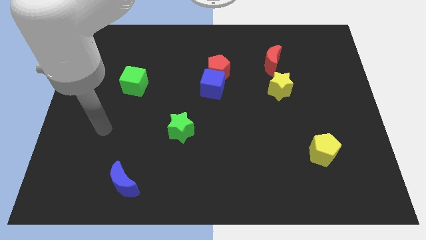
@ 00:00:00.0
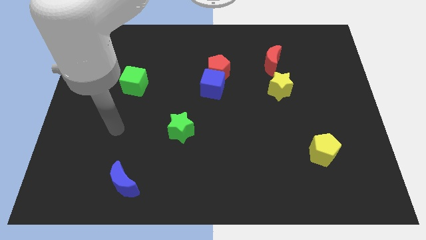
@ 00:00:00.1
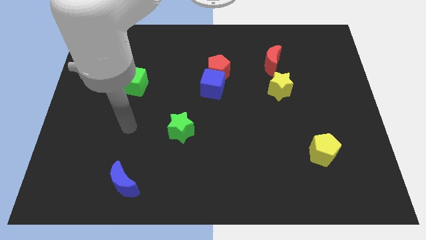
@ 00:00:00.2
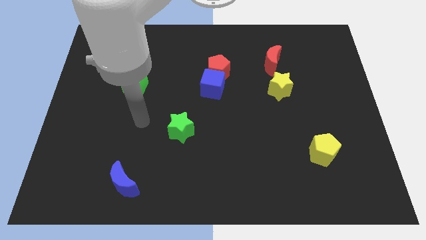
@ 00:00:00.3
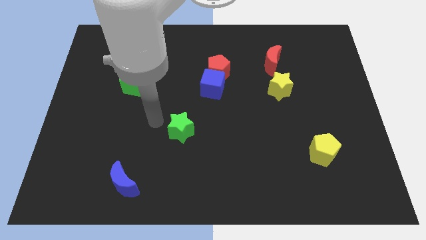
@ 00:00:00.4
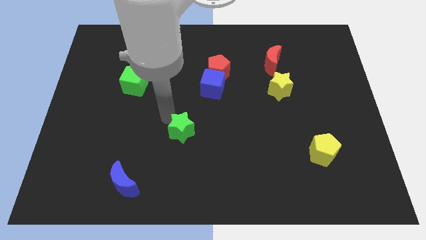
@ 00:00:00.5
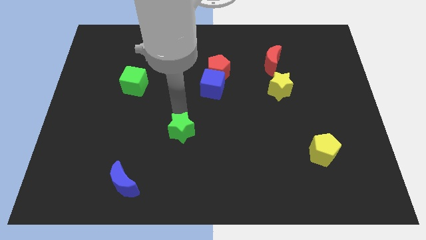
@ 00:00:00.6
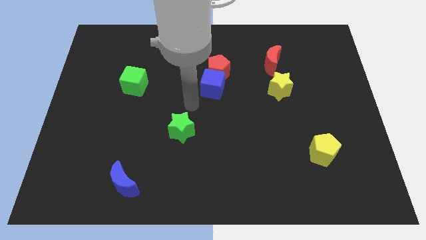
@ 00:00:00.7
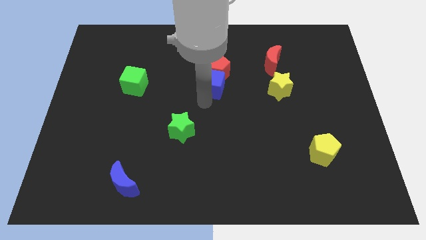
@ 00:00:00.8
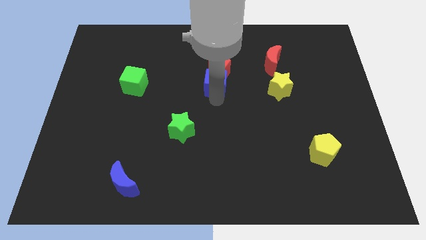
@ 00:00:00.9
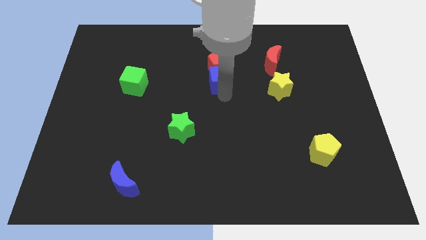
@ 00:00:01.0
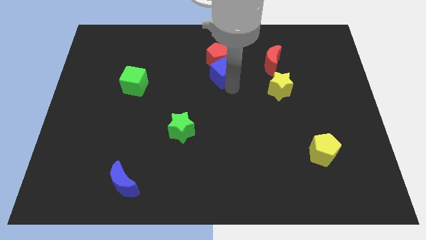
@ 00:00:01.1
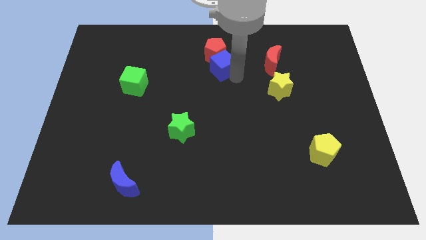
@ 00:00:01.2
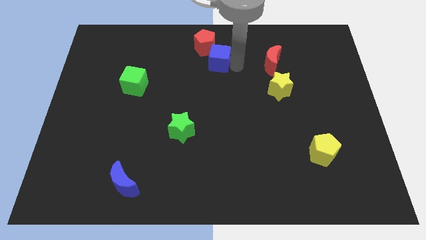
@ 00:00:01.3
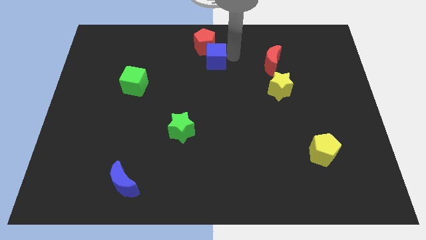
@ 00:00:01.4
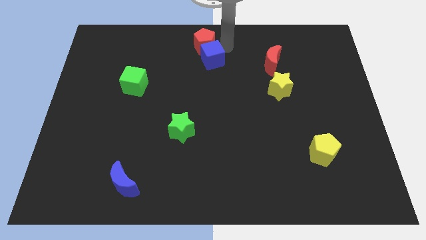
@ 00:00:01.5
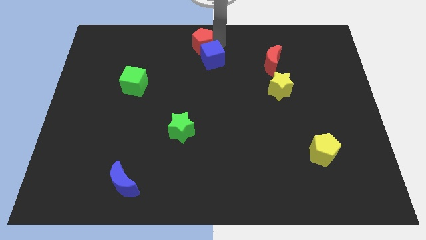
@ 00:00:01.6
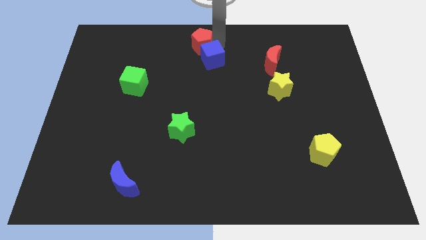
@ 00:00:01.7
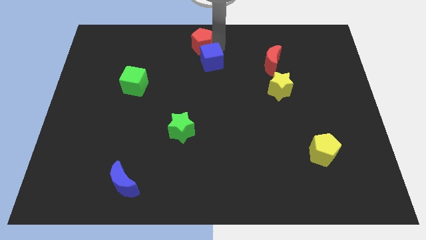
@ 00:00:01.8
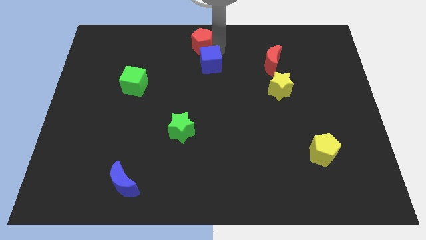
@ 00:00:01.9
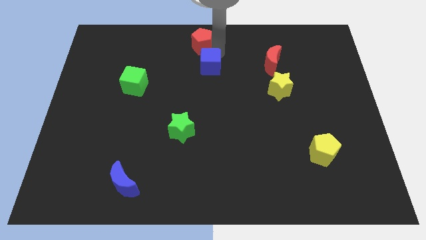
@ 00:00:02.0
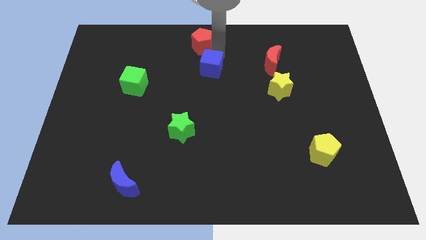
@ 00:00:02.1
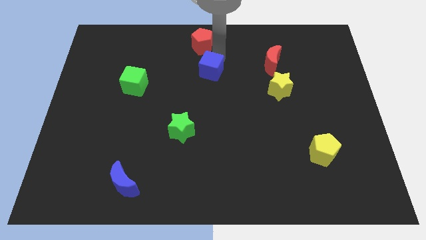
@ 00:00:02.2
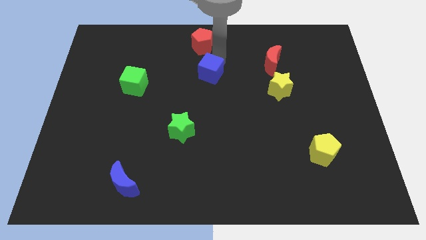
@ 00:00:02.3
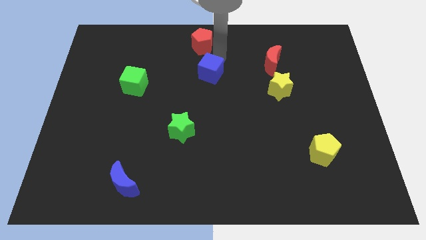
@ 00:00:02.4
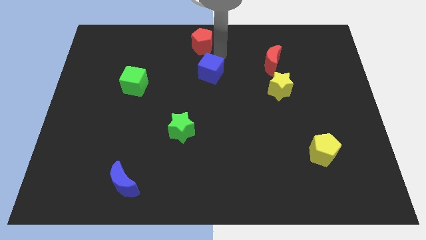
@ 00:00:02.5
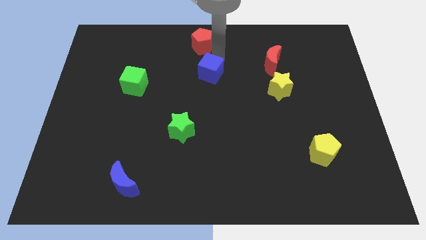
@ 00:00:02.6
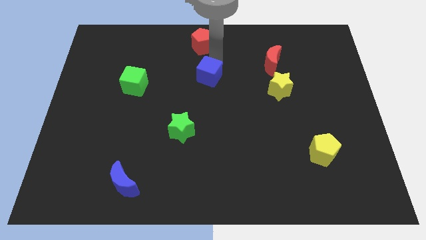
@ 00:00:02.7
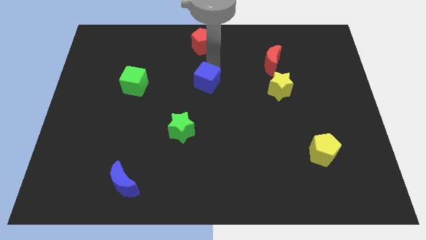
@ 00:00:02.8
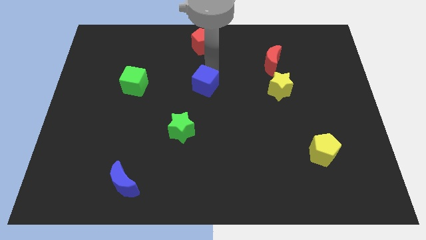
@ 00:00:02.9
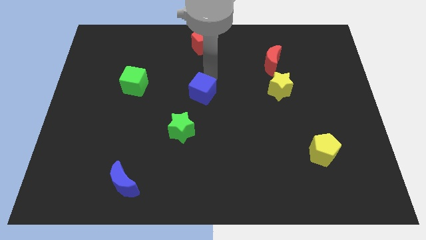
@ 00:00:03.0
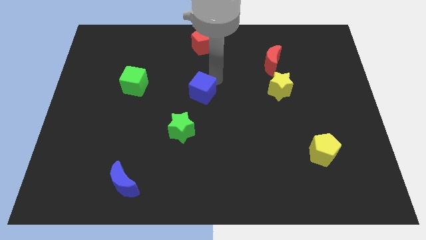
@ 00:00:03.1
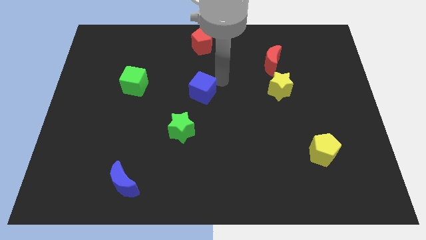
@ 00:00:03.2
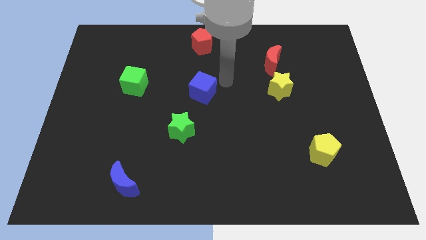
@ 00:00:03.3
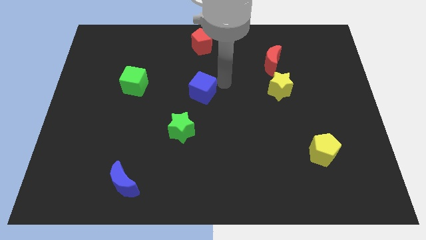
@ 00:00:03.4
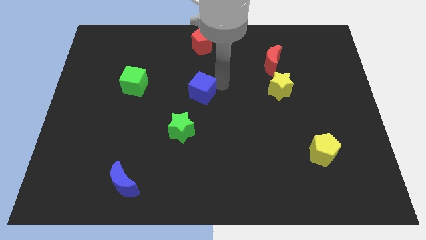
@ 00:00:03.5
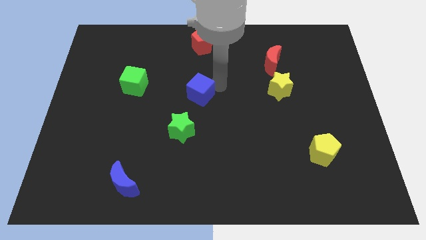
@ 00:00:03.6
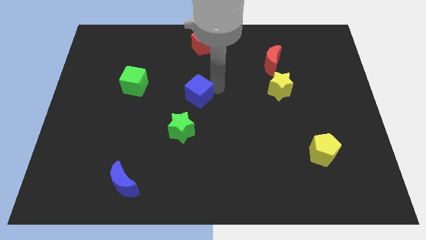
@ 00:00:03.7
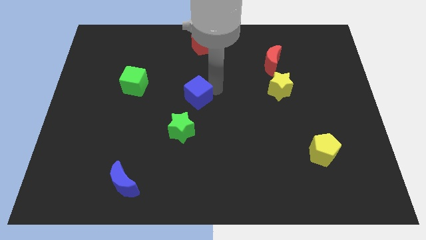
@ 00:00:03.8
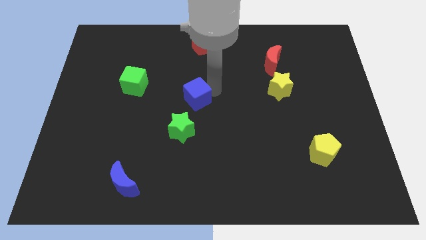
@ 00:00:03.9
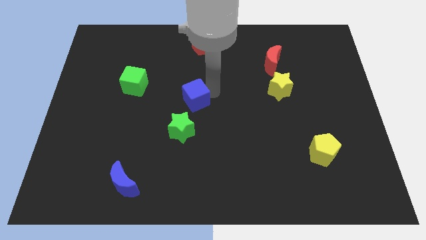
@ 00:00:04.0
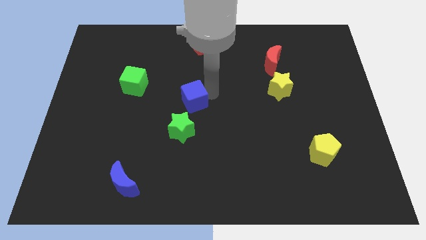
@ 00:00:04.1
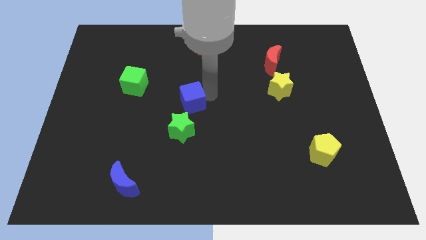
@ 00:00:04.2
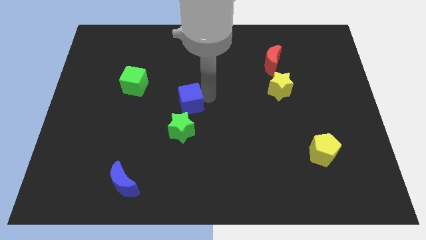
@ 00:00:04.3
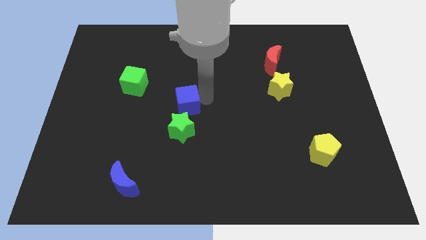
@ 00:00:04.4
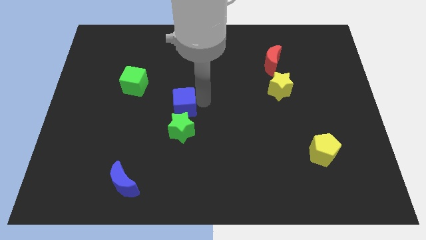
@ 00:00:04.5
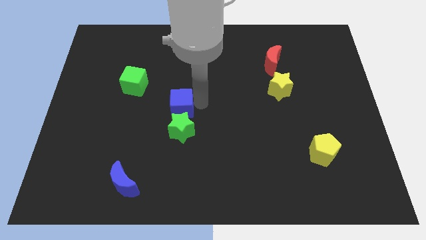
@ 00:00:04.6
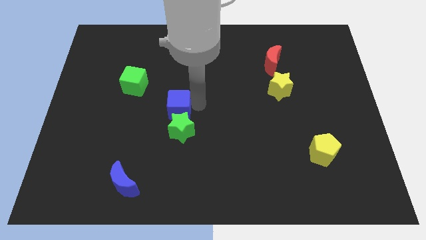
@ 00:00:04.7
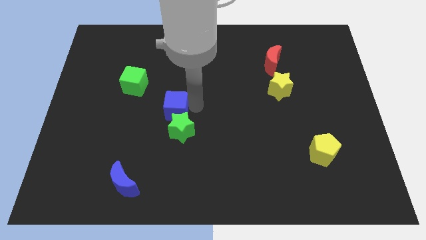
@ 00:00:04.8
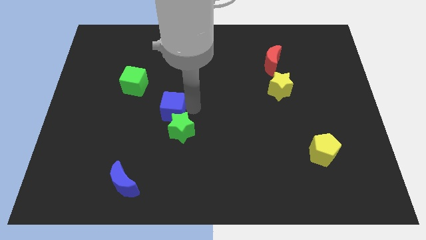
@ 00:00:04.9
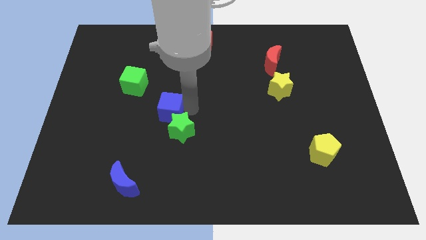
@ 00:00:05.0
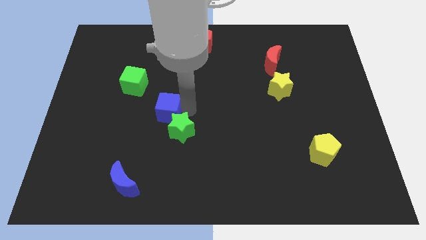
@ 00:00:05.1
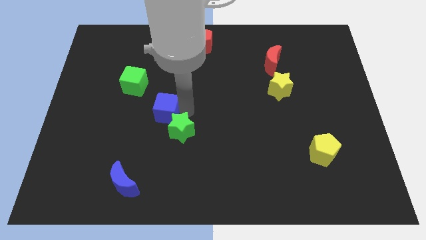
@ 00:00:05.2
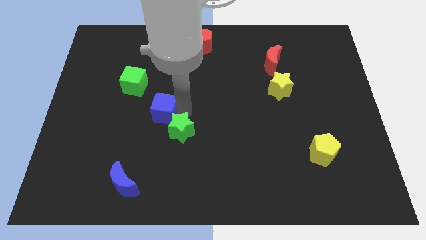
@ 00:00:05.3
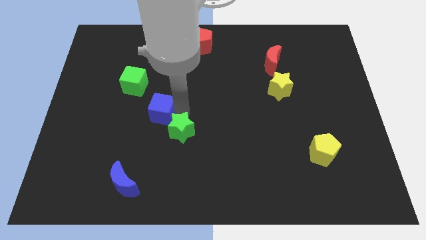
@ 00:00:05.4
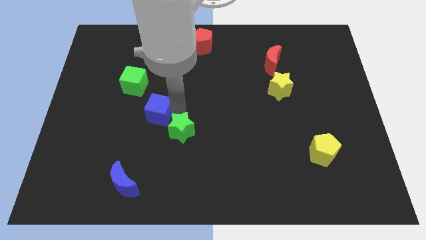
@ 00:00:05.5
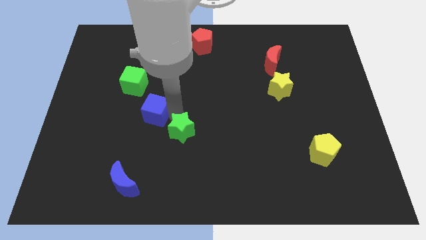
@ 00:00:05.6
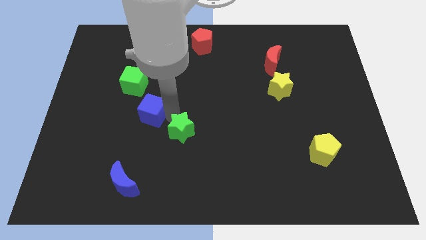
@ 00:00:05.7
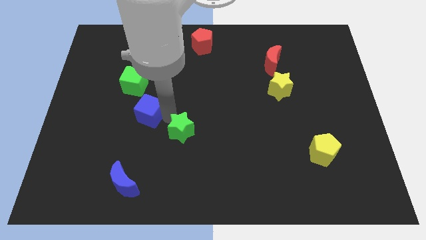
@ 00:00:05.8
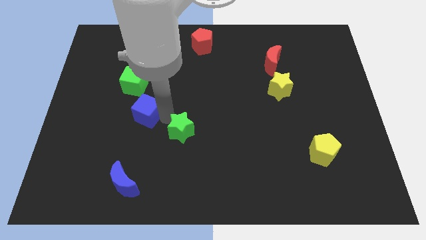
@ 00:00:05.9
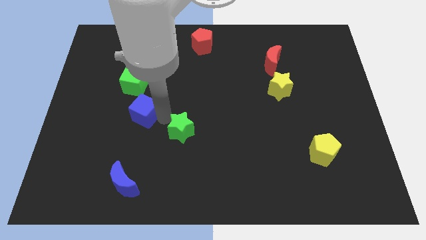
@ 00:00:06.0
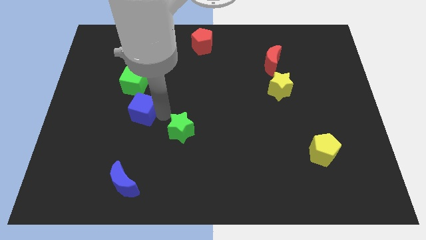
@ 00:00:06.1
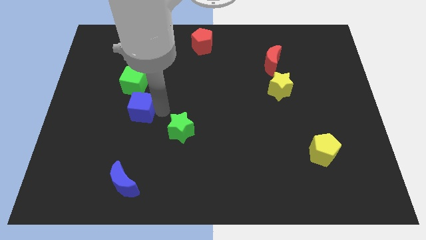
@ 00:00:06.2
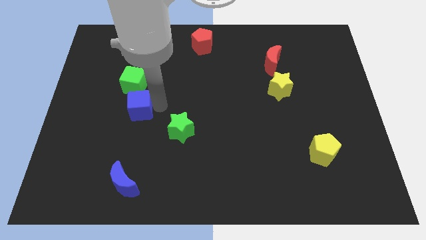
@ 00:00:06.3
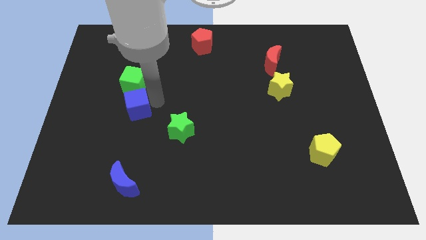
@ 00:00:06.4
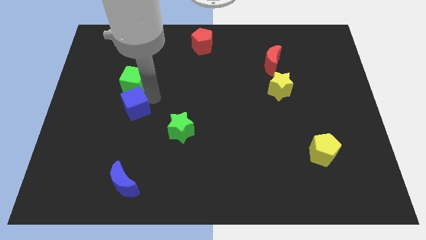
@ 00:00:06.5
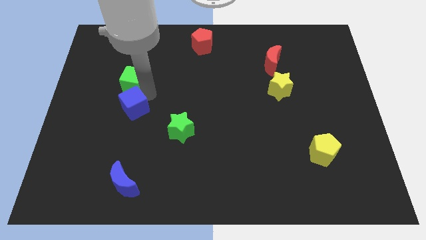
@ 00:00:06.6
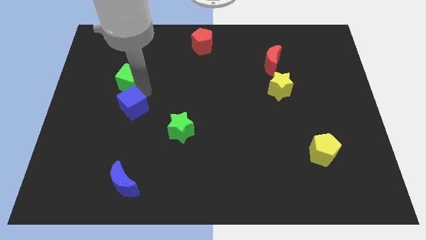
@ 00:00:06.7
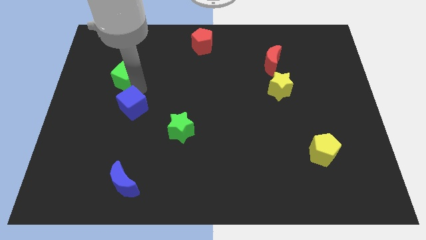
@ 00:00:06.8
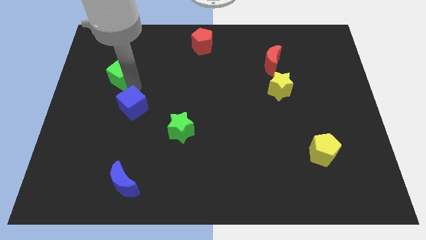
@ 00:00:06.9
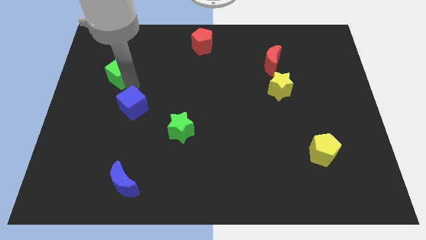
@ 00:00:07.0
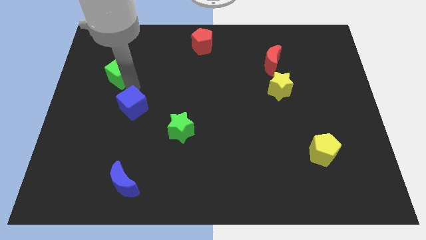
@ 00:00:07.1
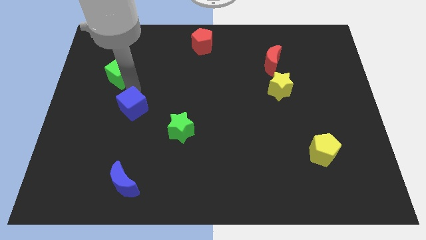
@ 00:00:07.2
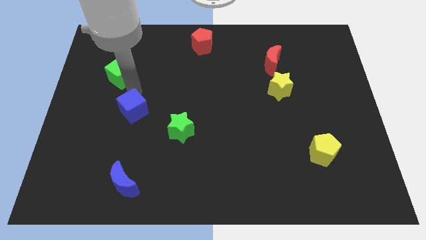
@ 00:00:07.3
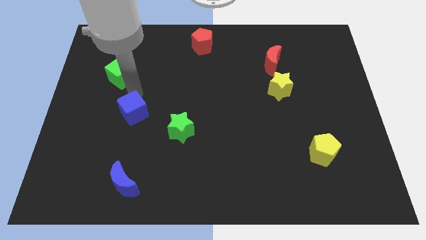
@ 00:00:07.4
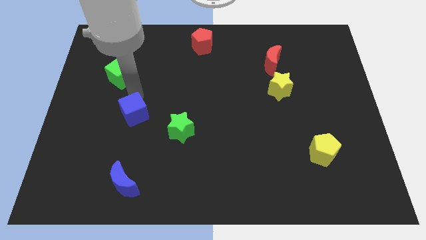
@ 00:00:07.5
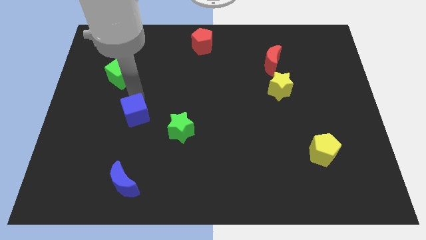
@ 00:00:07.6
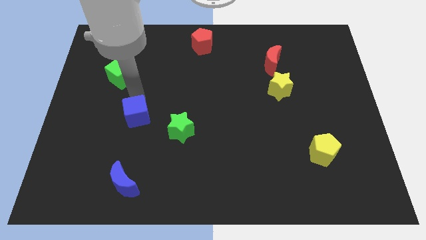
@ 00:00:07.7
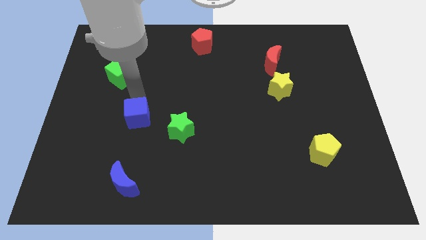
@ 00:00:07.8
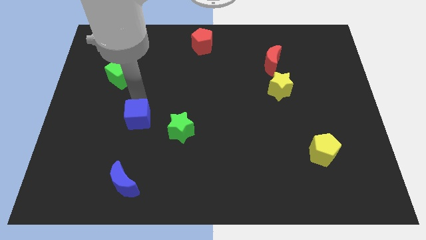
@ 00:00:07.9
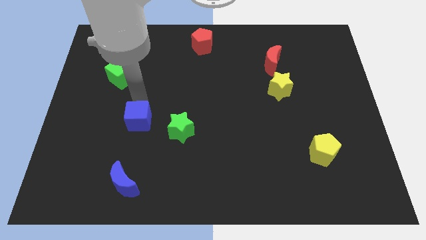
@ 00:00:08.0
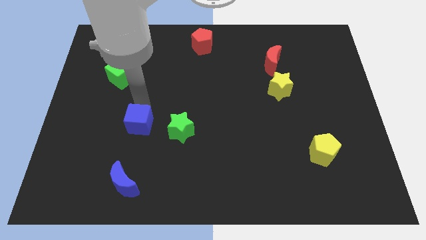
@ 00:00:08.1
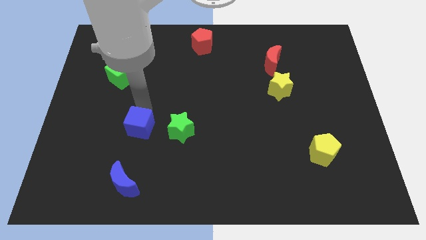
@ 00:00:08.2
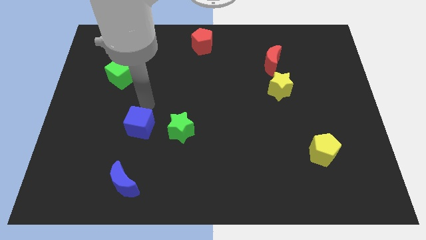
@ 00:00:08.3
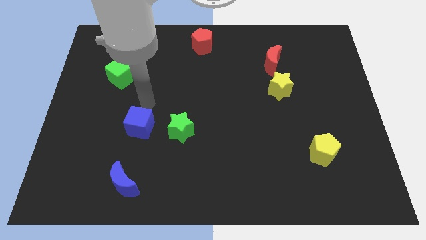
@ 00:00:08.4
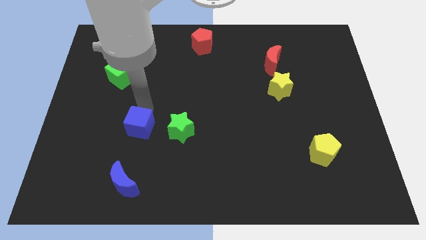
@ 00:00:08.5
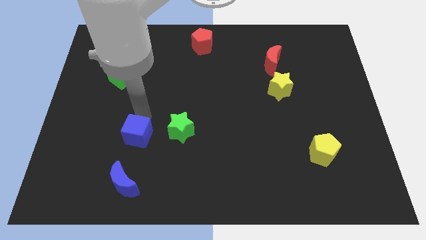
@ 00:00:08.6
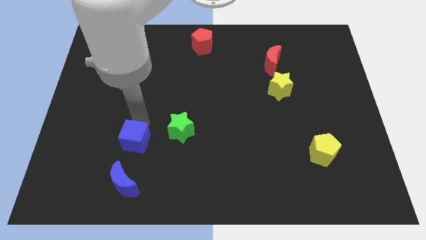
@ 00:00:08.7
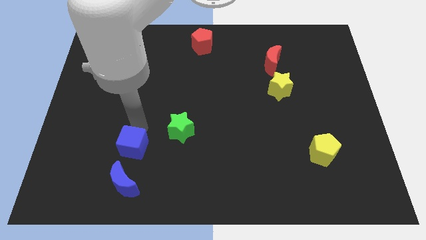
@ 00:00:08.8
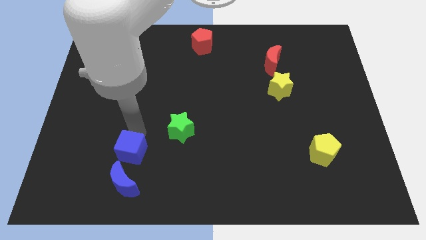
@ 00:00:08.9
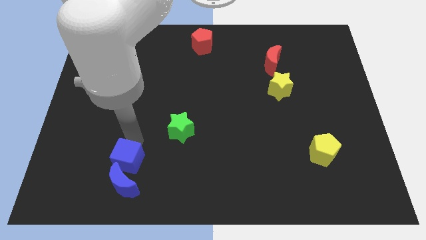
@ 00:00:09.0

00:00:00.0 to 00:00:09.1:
put the blue cube to the blue moon
